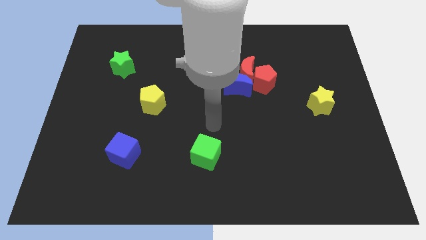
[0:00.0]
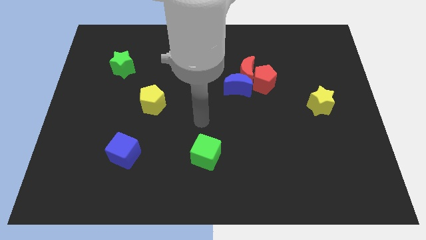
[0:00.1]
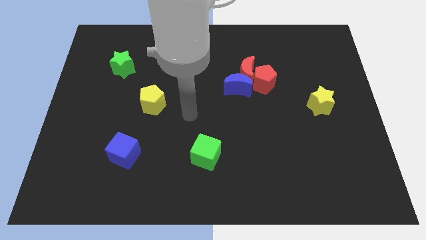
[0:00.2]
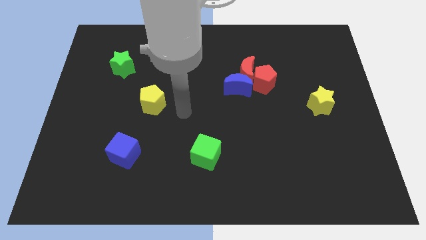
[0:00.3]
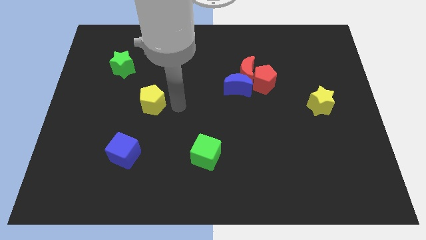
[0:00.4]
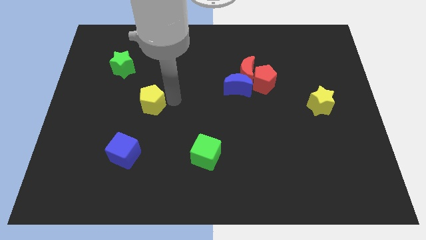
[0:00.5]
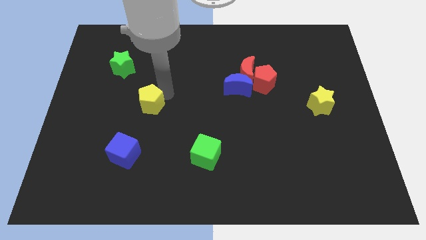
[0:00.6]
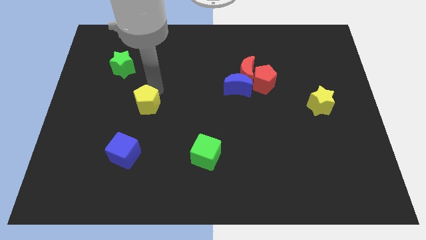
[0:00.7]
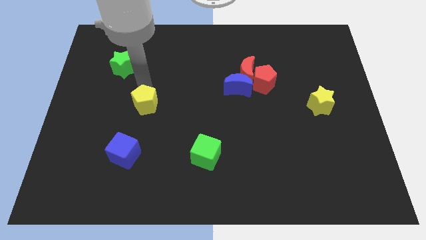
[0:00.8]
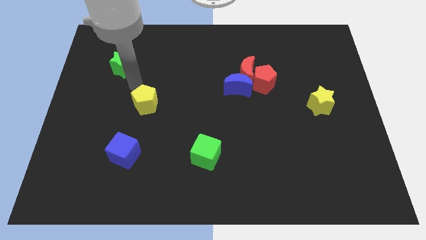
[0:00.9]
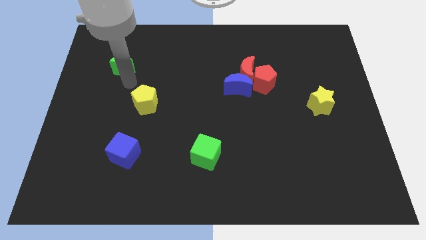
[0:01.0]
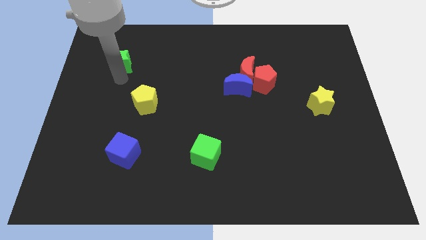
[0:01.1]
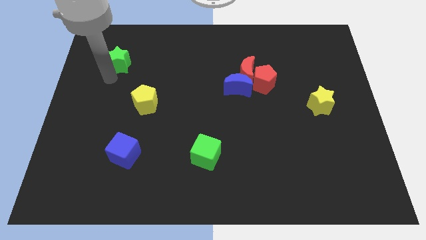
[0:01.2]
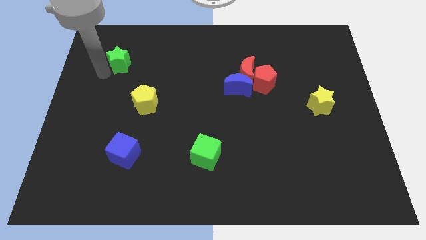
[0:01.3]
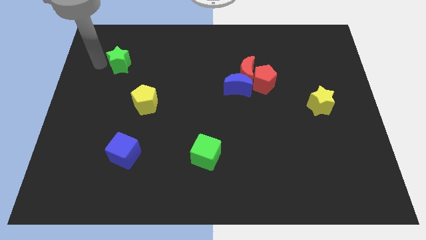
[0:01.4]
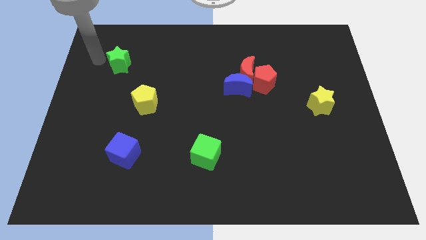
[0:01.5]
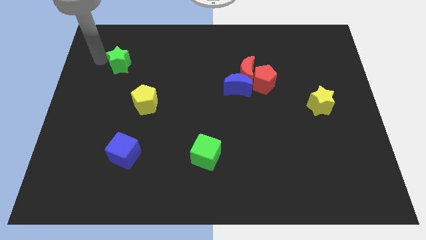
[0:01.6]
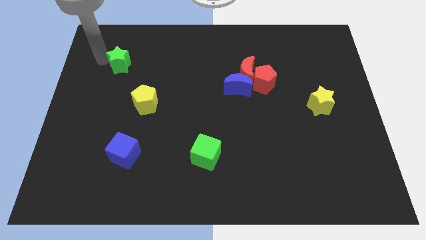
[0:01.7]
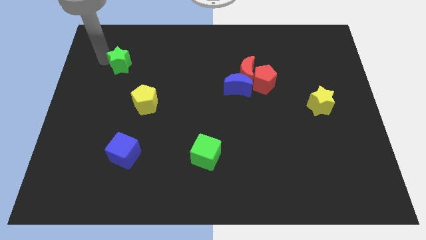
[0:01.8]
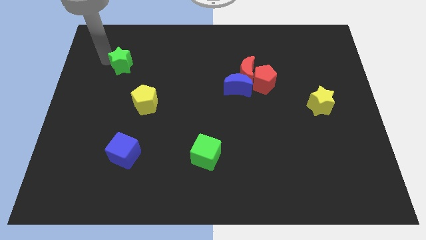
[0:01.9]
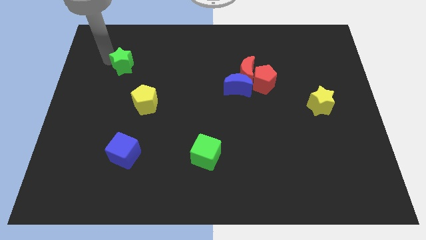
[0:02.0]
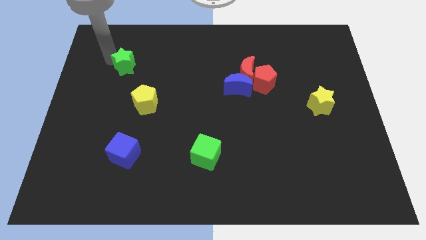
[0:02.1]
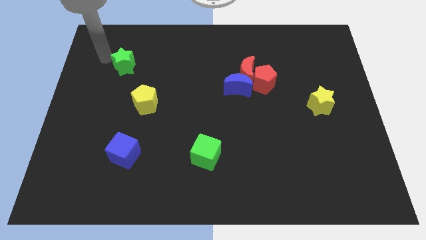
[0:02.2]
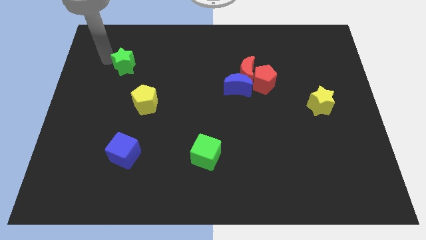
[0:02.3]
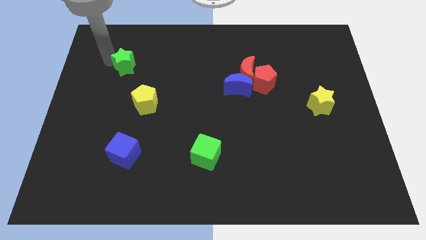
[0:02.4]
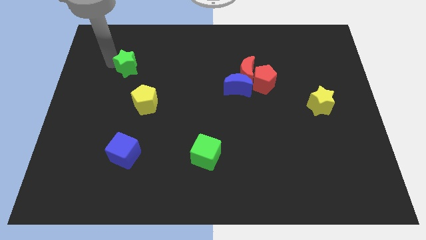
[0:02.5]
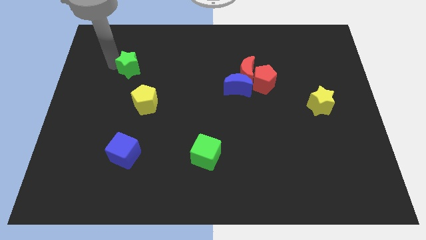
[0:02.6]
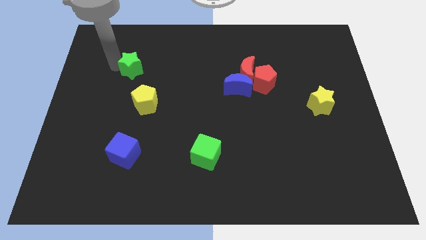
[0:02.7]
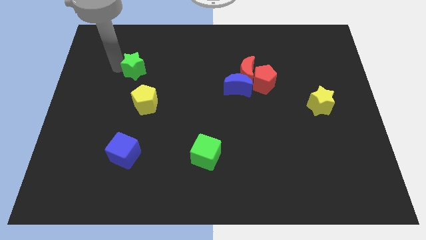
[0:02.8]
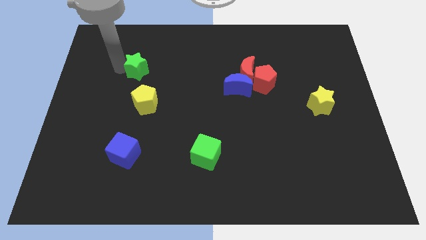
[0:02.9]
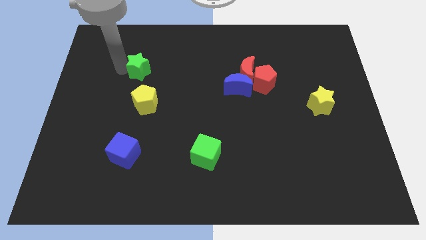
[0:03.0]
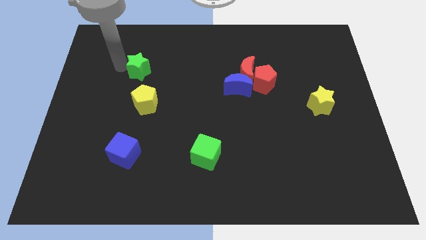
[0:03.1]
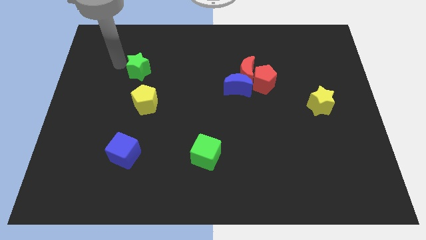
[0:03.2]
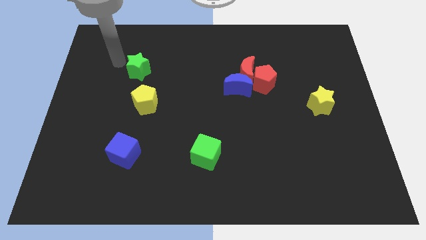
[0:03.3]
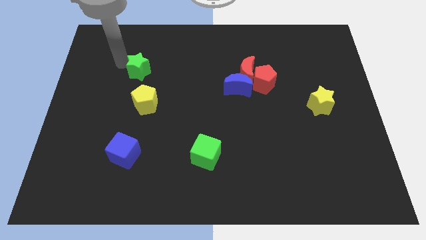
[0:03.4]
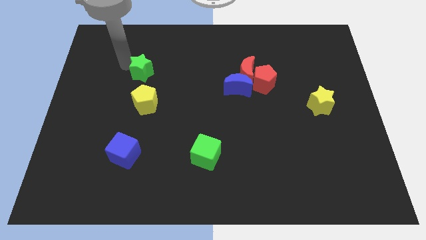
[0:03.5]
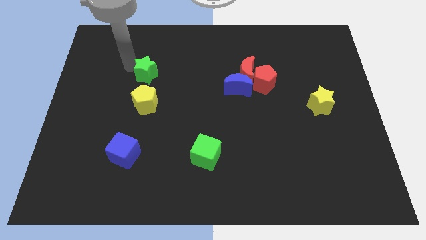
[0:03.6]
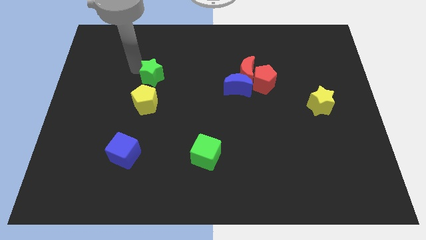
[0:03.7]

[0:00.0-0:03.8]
slightly push the green star downwards and to the right diagonally

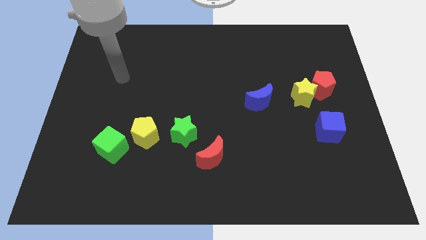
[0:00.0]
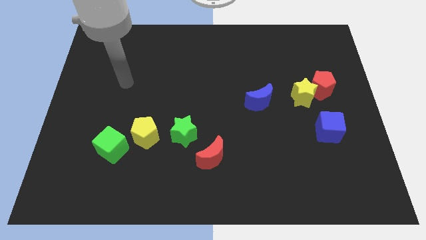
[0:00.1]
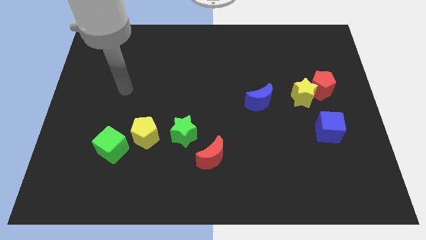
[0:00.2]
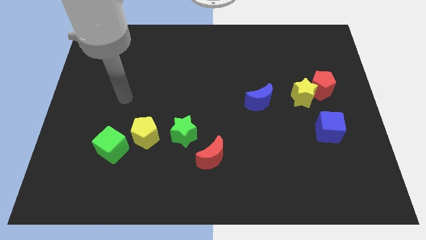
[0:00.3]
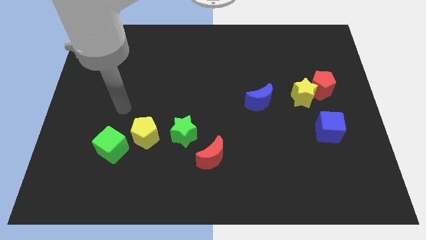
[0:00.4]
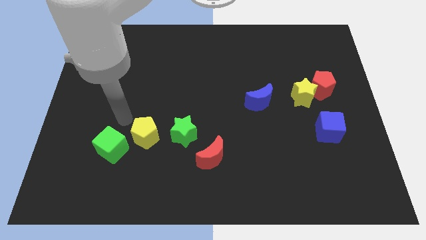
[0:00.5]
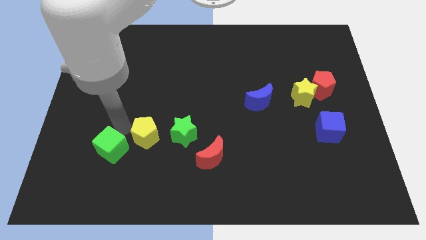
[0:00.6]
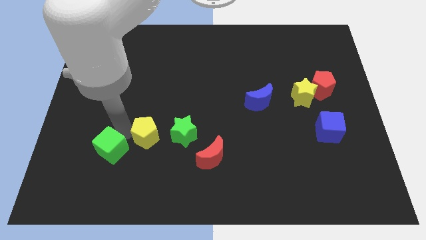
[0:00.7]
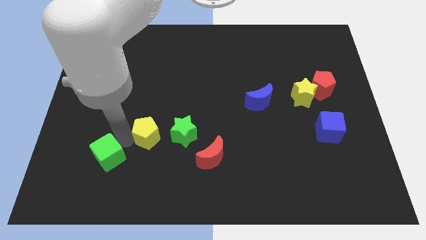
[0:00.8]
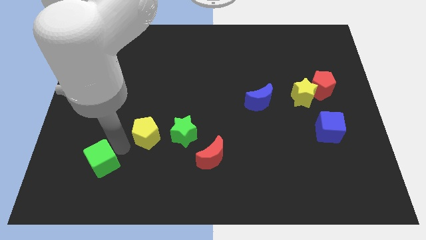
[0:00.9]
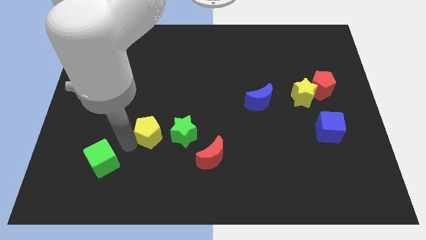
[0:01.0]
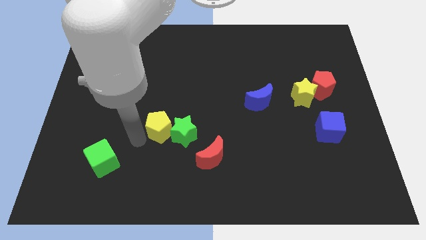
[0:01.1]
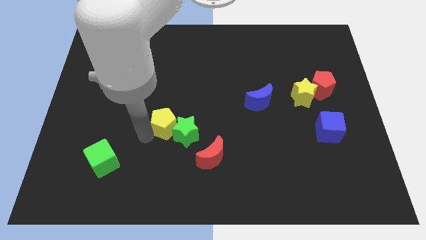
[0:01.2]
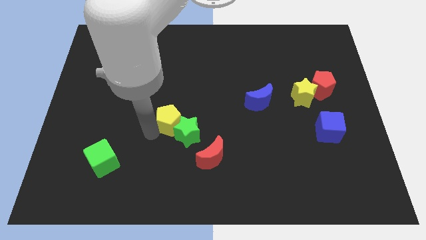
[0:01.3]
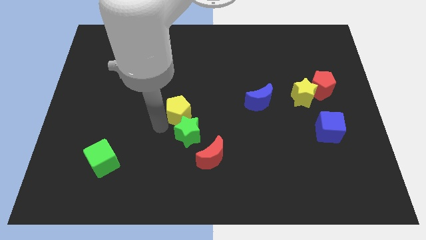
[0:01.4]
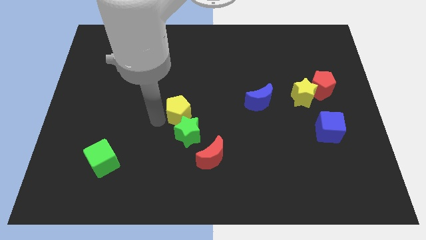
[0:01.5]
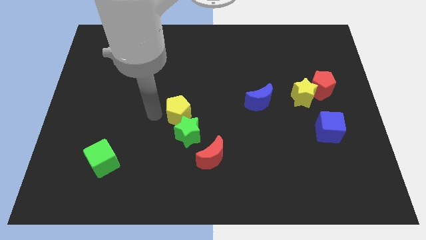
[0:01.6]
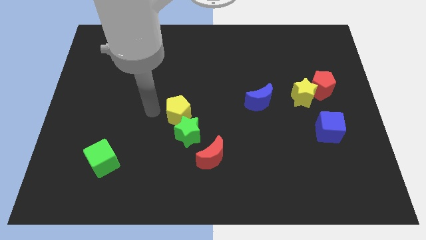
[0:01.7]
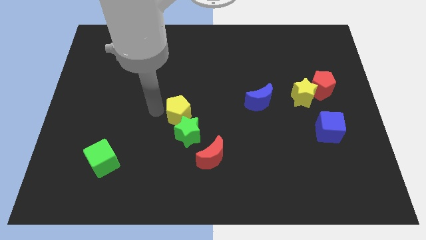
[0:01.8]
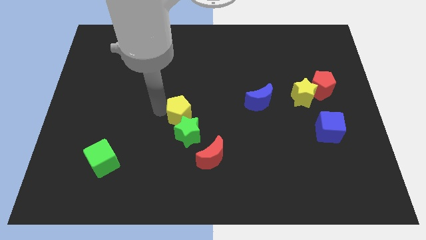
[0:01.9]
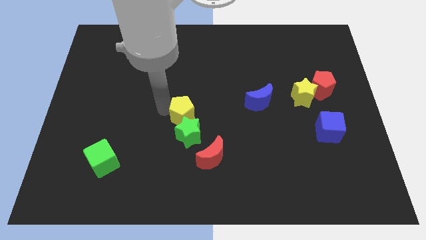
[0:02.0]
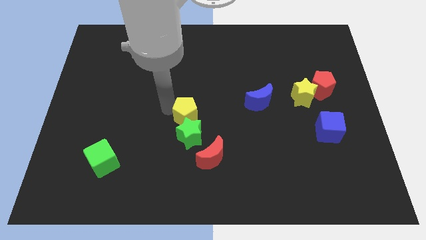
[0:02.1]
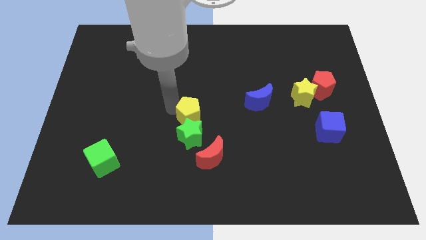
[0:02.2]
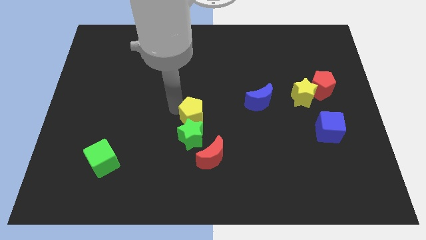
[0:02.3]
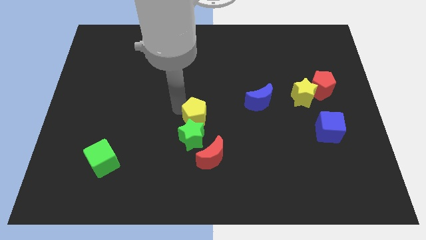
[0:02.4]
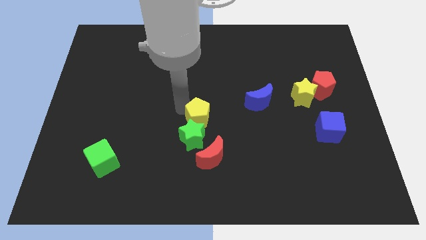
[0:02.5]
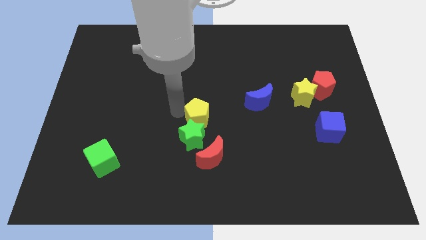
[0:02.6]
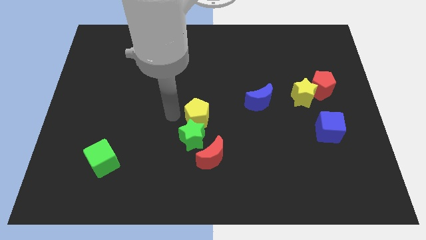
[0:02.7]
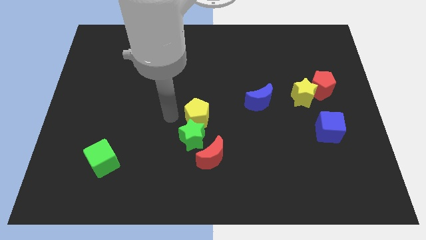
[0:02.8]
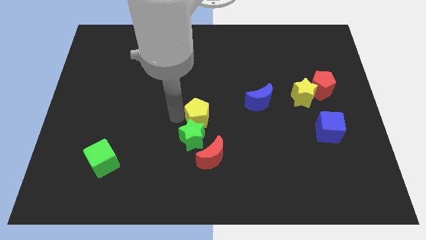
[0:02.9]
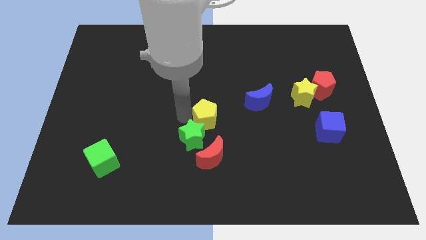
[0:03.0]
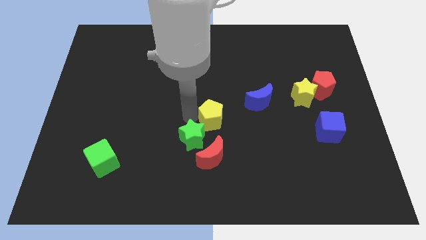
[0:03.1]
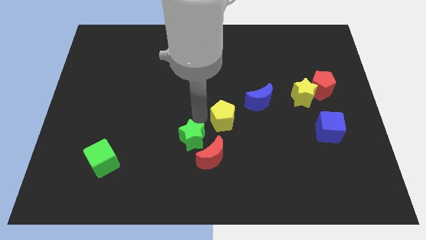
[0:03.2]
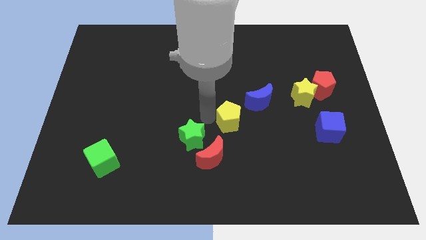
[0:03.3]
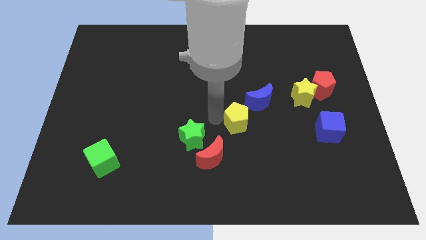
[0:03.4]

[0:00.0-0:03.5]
push the yellow pentagon to the right

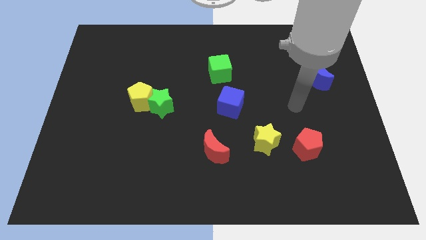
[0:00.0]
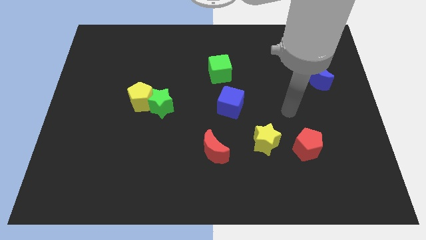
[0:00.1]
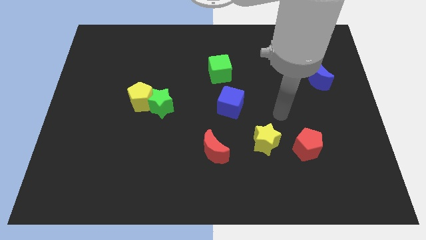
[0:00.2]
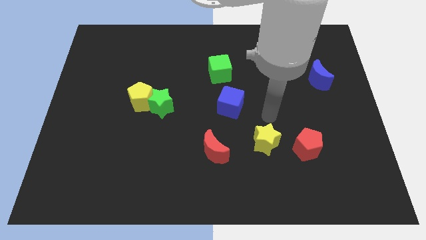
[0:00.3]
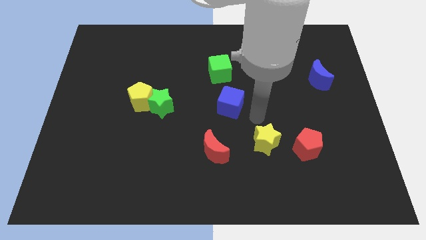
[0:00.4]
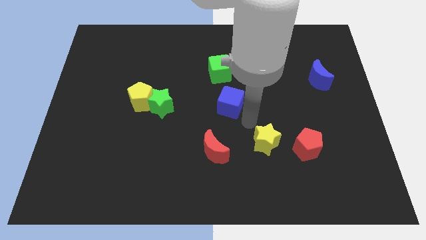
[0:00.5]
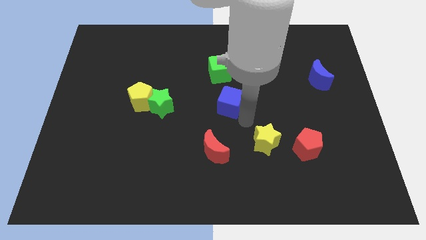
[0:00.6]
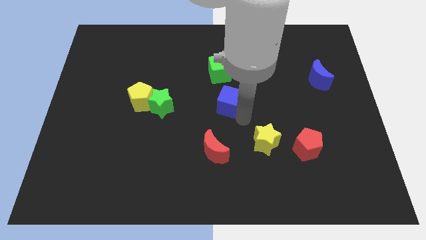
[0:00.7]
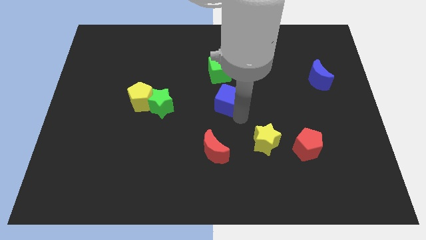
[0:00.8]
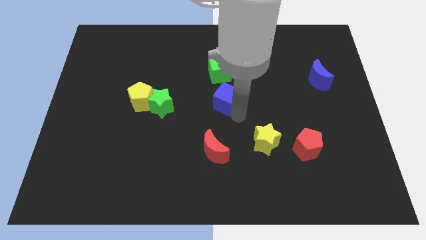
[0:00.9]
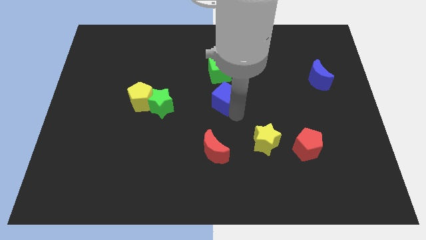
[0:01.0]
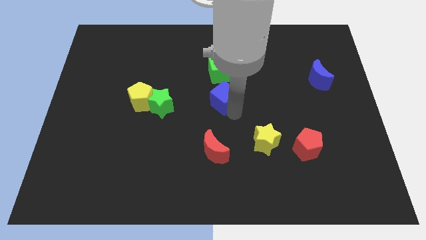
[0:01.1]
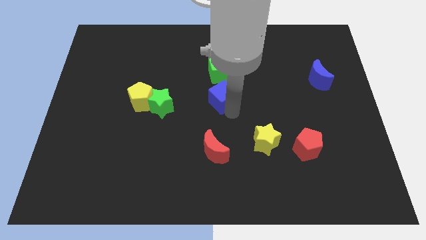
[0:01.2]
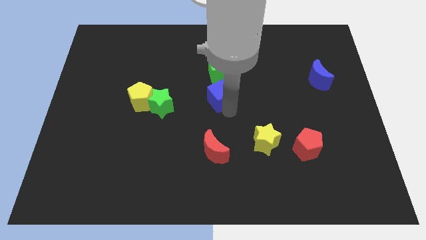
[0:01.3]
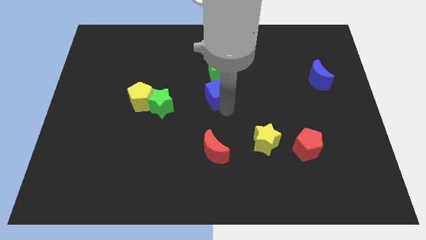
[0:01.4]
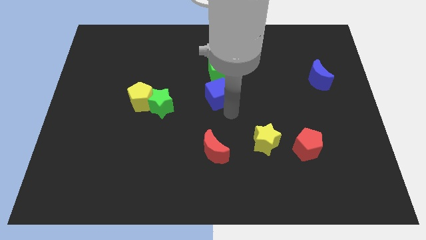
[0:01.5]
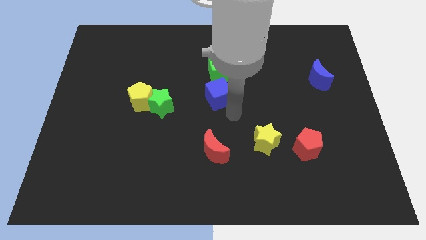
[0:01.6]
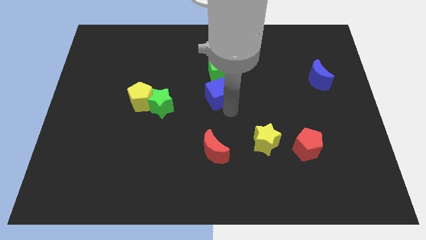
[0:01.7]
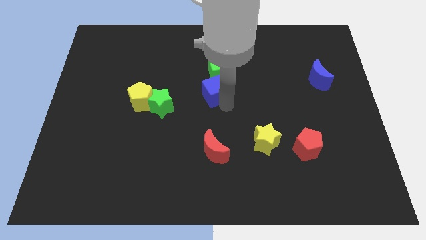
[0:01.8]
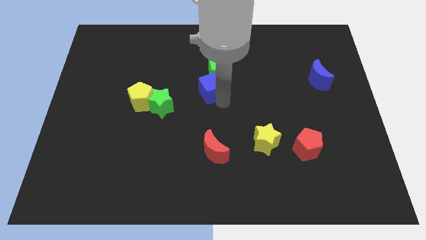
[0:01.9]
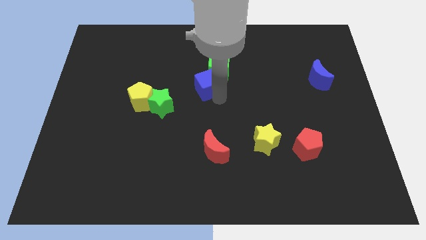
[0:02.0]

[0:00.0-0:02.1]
move the blue cube upwards and to the left somewhat
